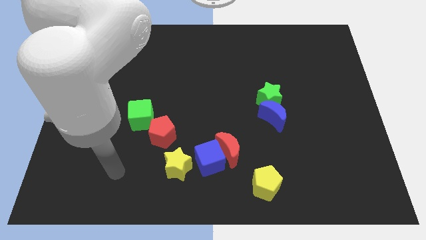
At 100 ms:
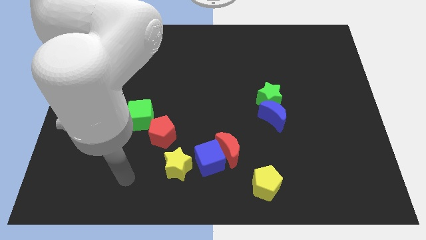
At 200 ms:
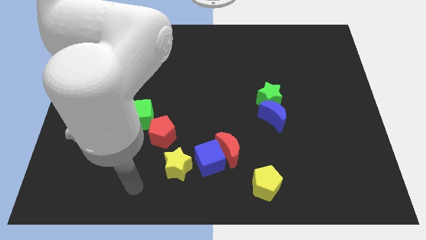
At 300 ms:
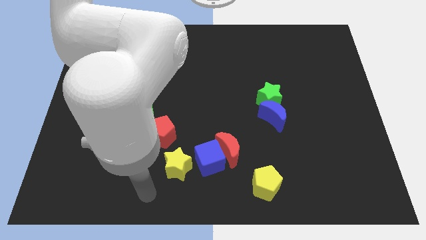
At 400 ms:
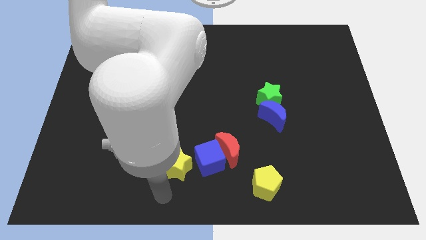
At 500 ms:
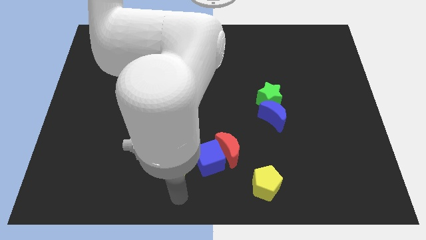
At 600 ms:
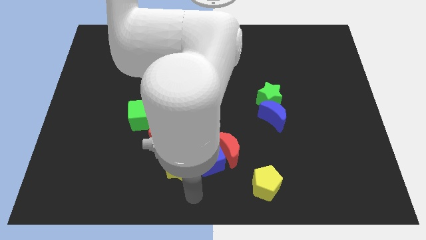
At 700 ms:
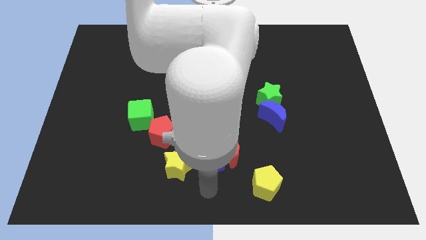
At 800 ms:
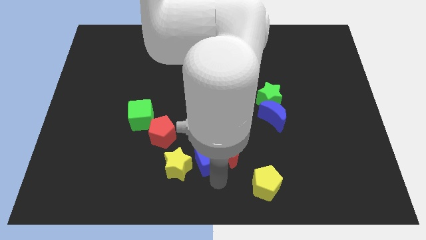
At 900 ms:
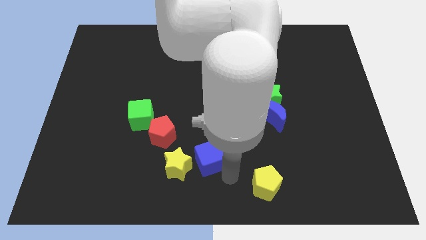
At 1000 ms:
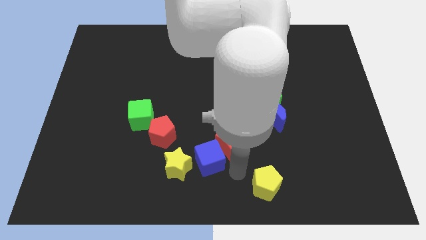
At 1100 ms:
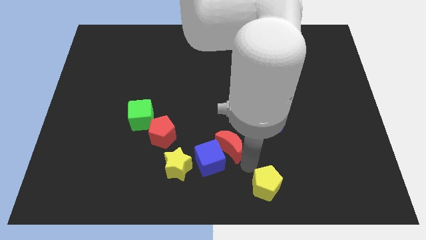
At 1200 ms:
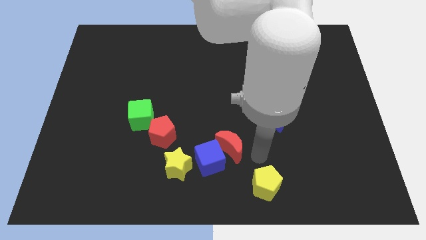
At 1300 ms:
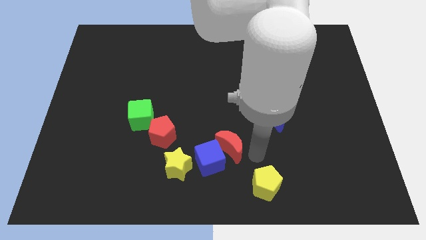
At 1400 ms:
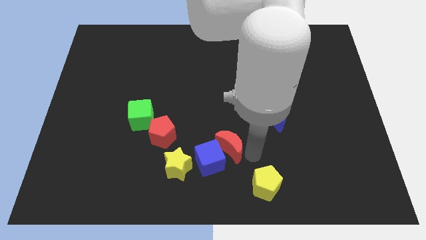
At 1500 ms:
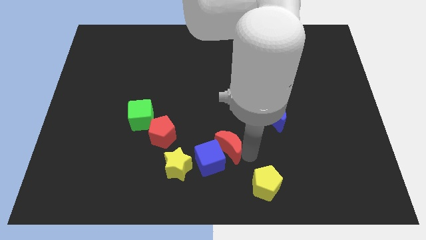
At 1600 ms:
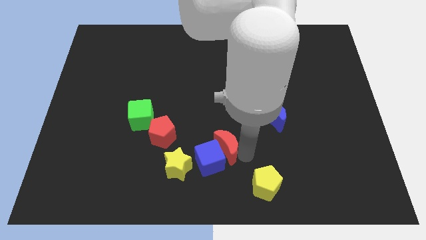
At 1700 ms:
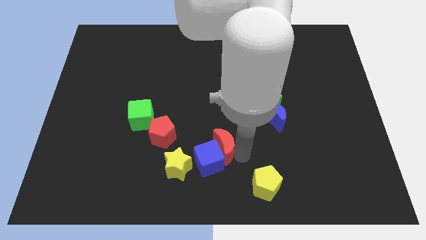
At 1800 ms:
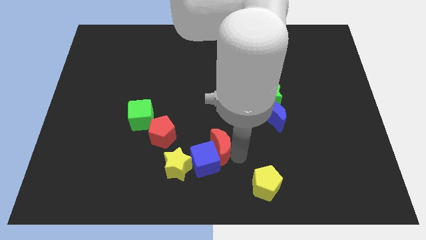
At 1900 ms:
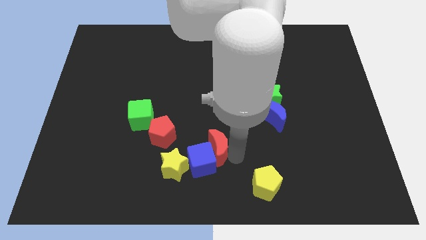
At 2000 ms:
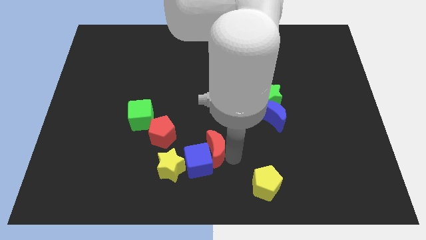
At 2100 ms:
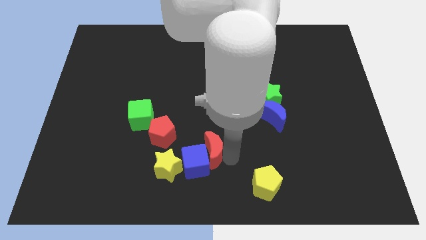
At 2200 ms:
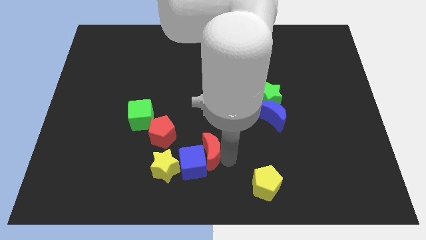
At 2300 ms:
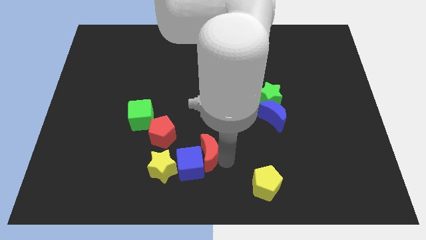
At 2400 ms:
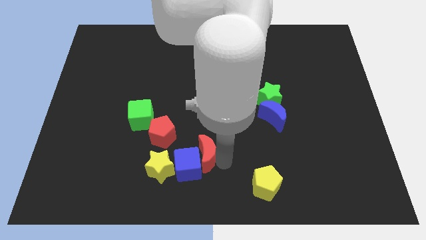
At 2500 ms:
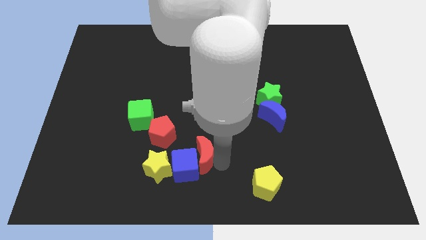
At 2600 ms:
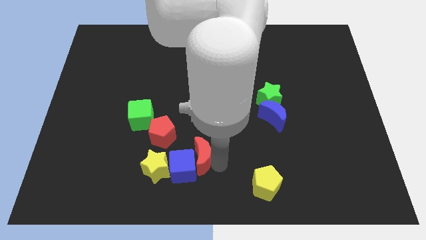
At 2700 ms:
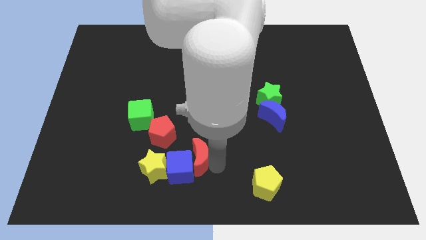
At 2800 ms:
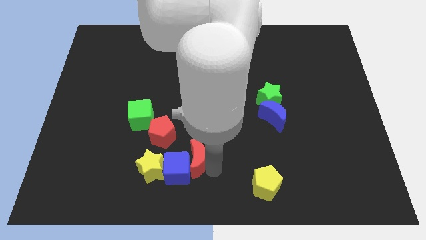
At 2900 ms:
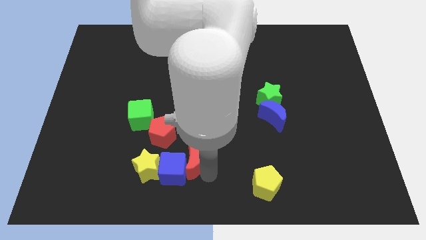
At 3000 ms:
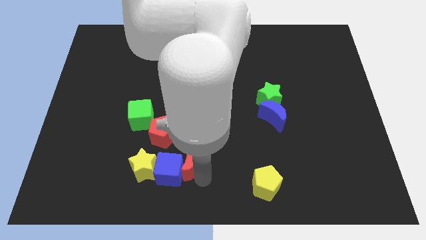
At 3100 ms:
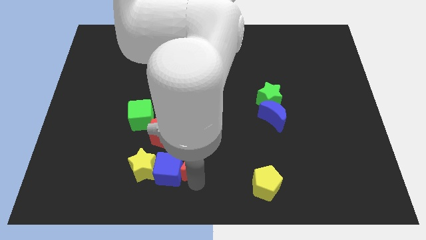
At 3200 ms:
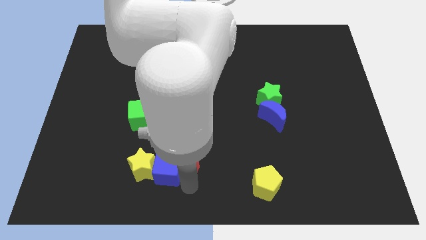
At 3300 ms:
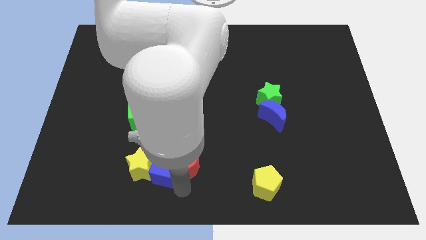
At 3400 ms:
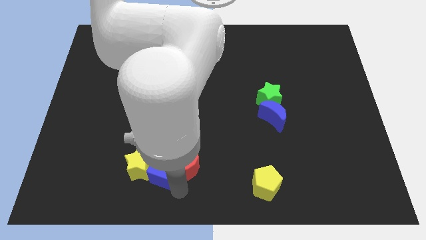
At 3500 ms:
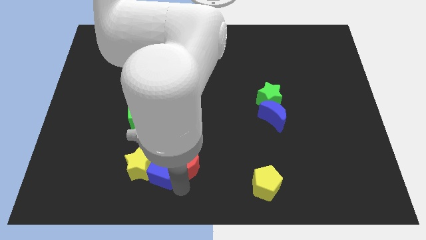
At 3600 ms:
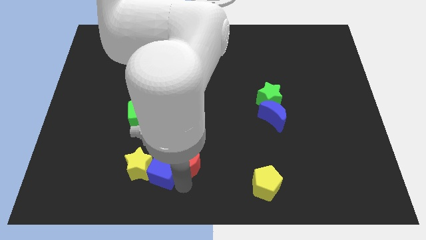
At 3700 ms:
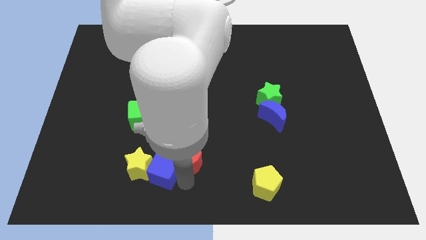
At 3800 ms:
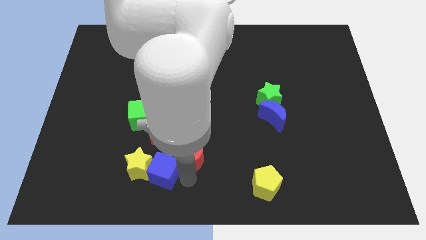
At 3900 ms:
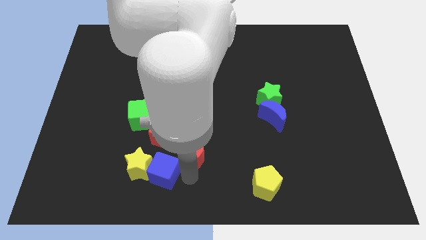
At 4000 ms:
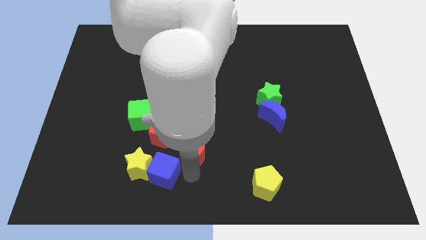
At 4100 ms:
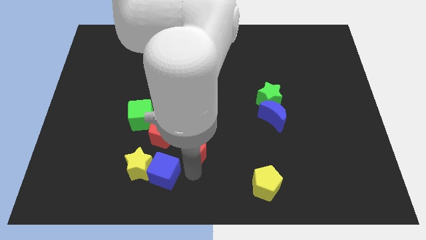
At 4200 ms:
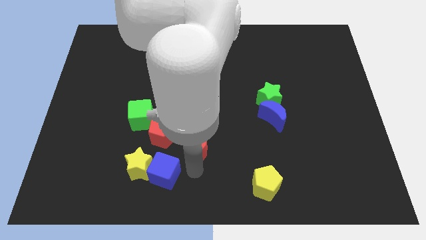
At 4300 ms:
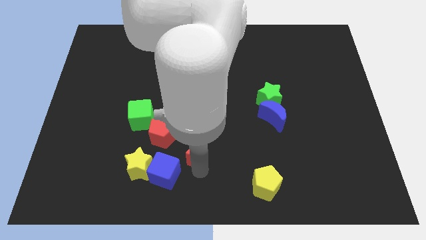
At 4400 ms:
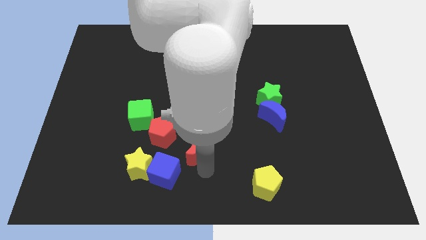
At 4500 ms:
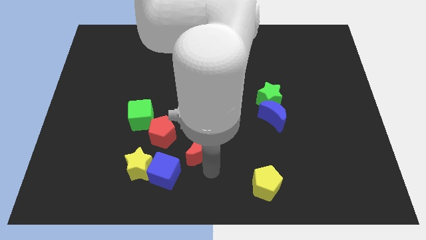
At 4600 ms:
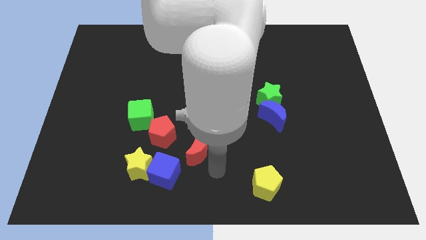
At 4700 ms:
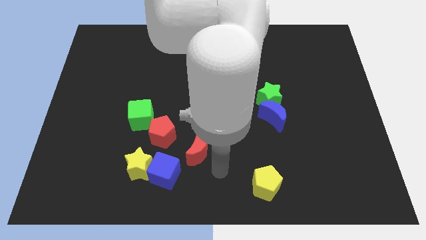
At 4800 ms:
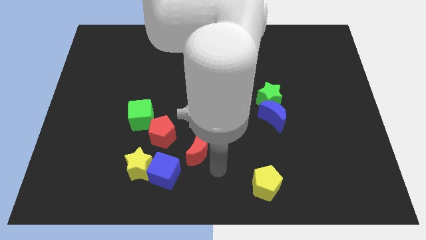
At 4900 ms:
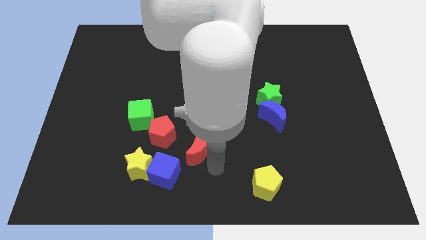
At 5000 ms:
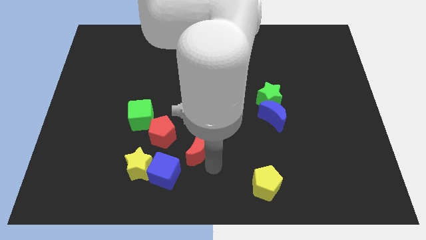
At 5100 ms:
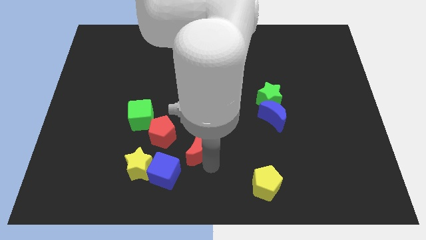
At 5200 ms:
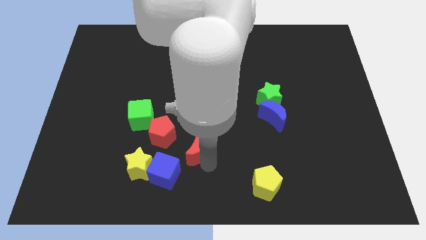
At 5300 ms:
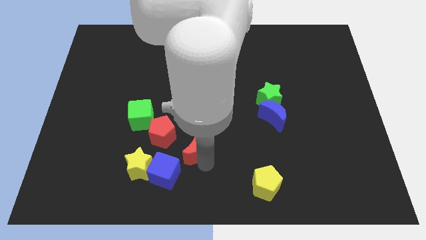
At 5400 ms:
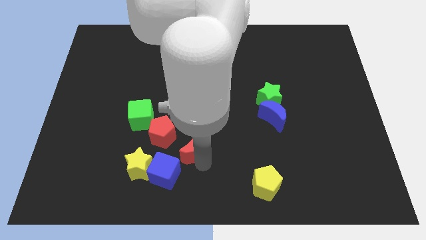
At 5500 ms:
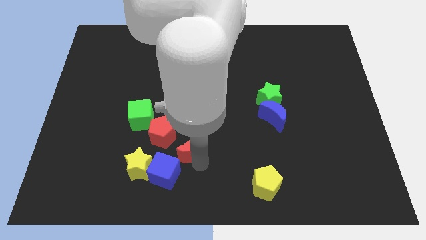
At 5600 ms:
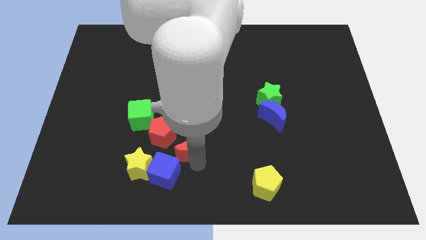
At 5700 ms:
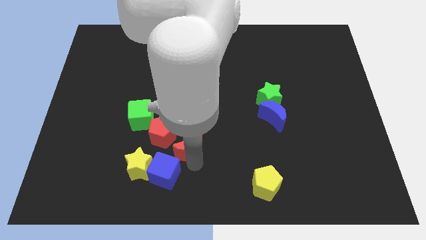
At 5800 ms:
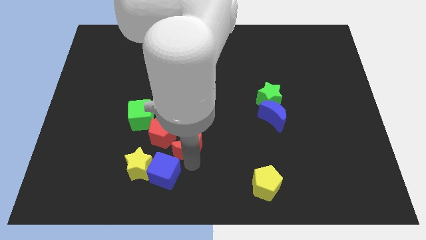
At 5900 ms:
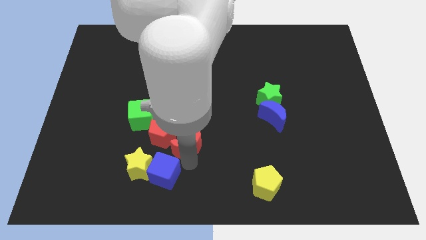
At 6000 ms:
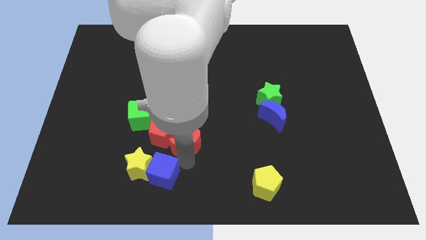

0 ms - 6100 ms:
put the red moon next to the red pentagon
